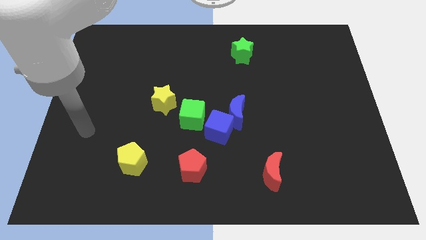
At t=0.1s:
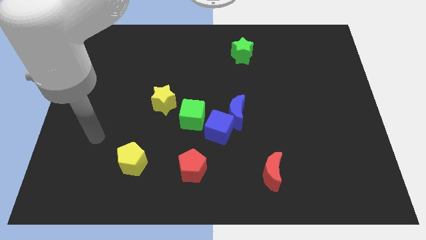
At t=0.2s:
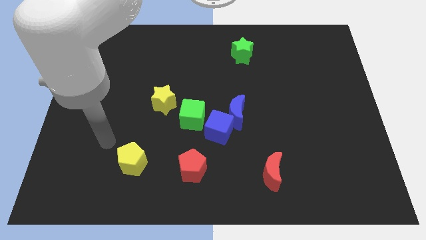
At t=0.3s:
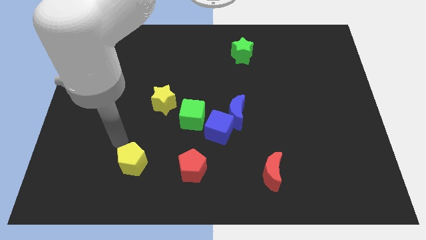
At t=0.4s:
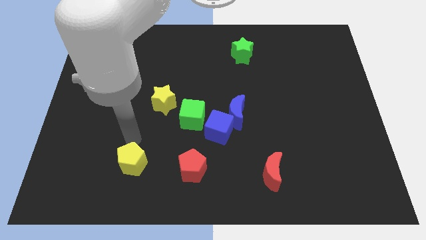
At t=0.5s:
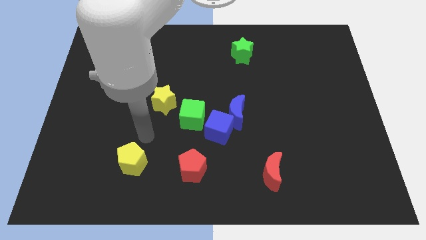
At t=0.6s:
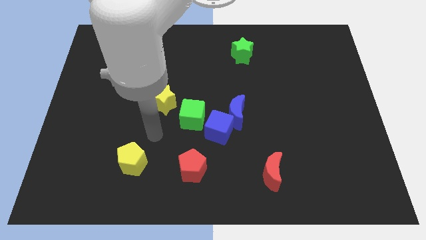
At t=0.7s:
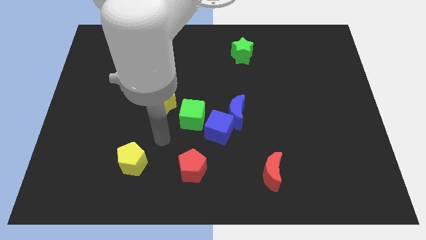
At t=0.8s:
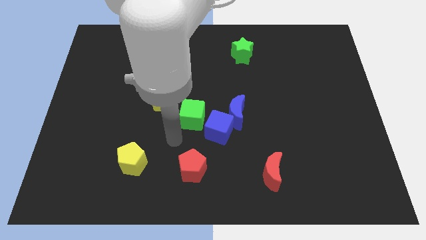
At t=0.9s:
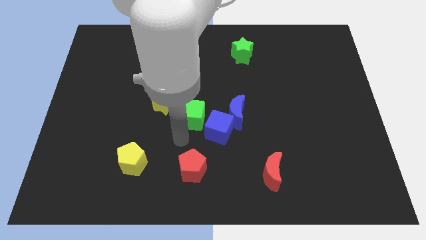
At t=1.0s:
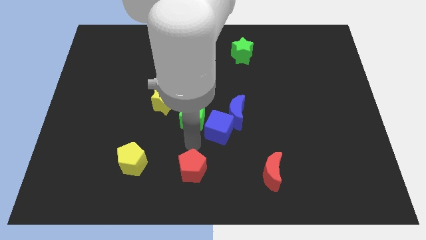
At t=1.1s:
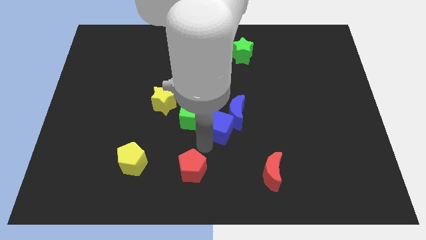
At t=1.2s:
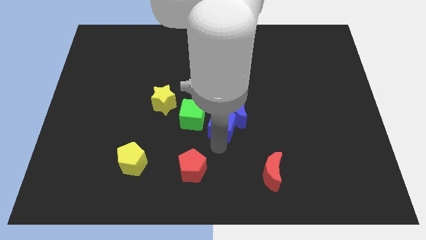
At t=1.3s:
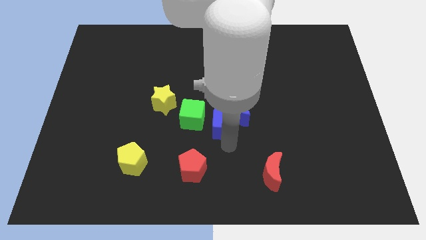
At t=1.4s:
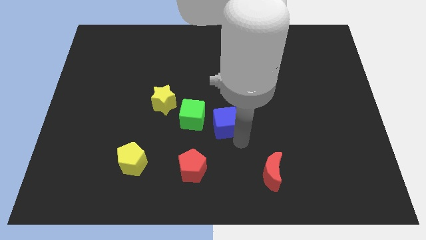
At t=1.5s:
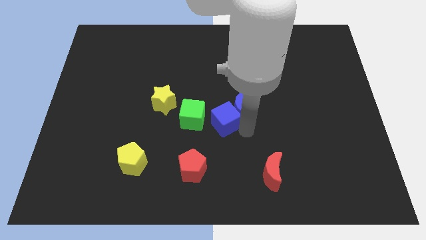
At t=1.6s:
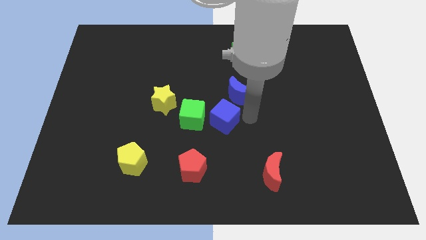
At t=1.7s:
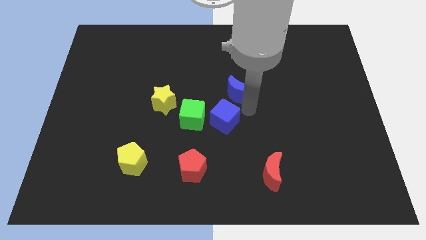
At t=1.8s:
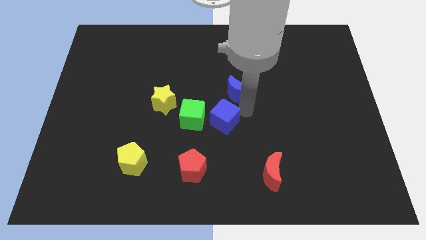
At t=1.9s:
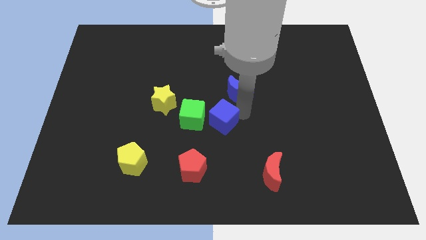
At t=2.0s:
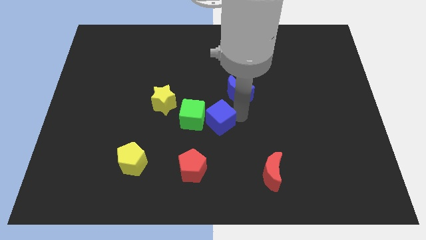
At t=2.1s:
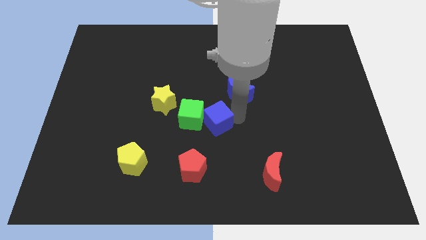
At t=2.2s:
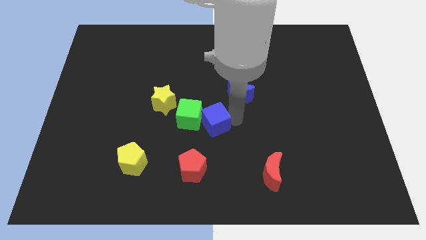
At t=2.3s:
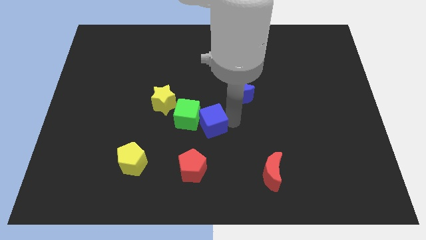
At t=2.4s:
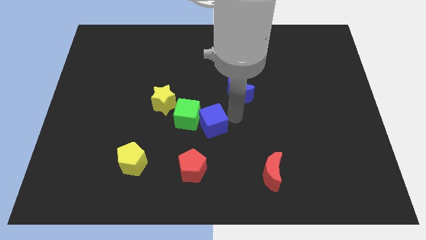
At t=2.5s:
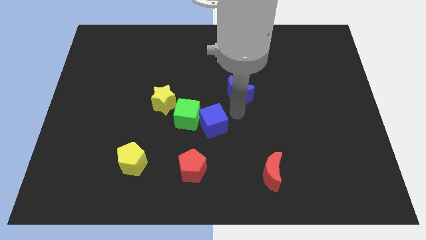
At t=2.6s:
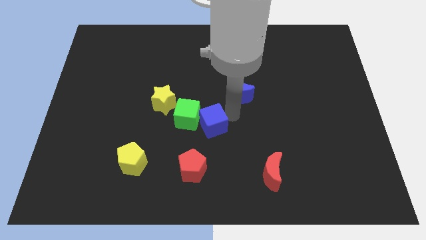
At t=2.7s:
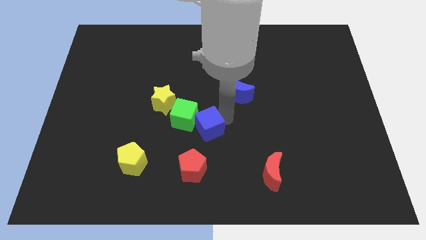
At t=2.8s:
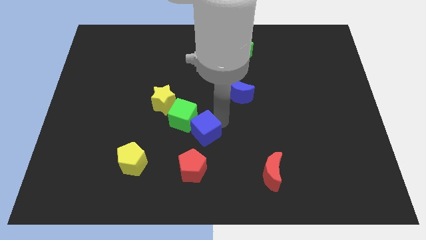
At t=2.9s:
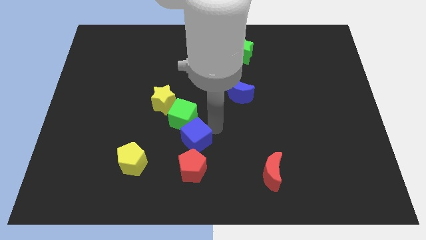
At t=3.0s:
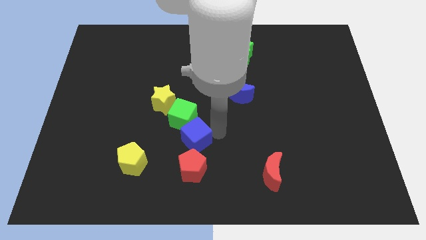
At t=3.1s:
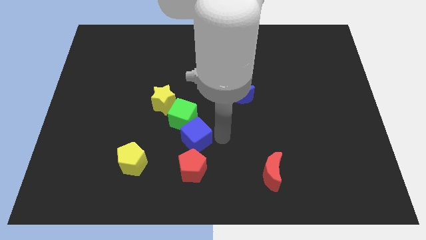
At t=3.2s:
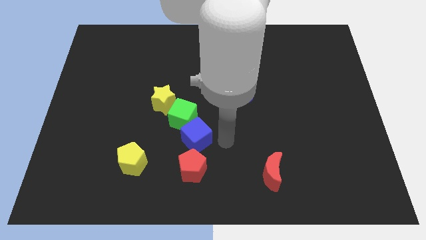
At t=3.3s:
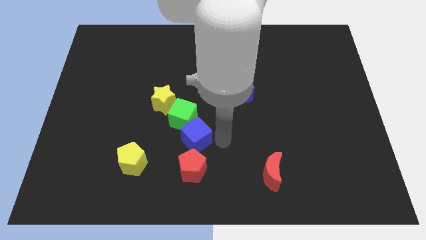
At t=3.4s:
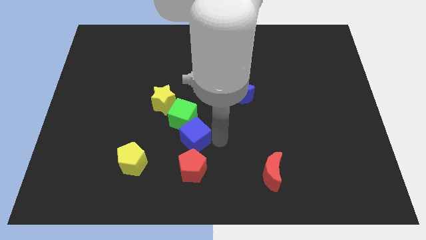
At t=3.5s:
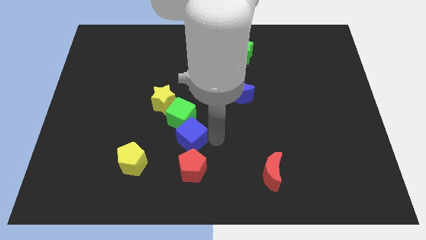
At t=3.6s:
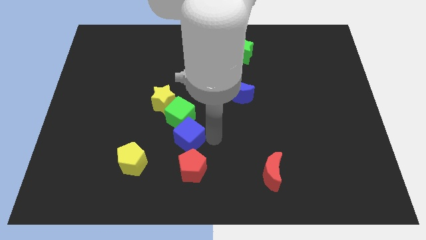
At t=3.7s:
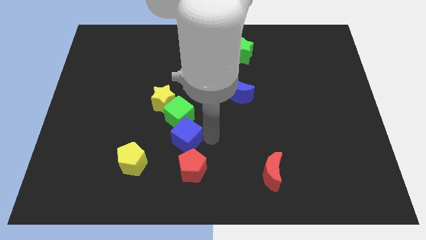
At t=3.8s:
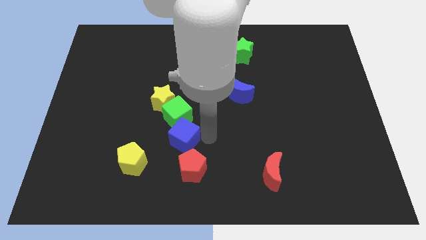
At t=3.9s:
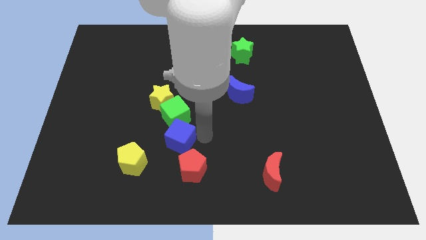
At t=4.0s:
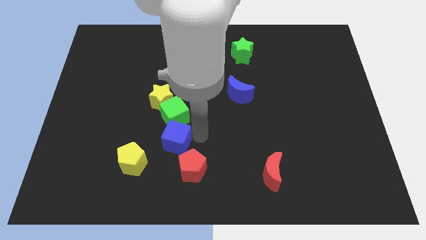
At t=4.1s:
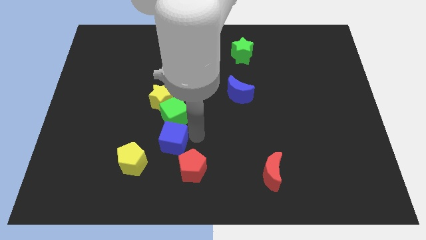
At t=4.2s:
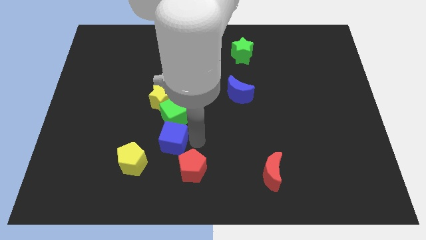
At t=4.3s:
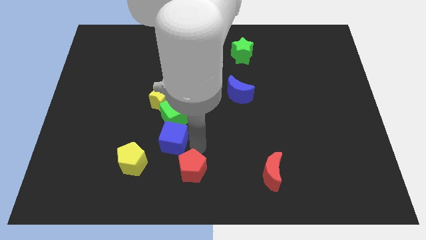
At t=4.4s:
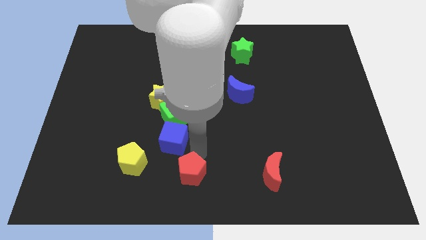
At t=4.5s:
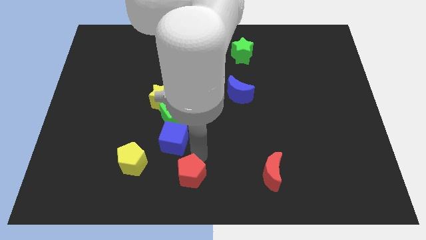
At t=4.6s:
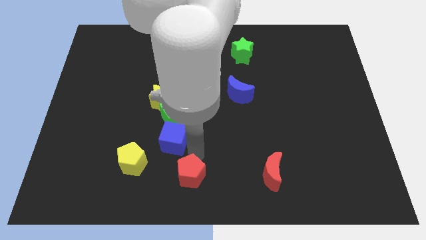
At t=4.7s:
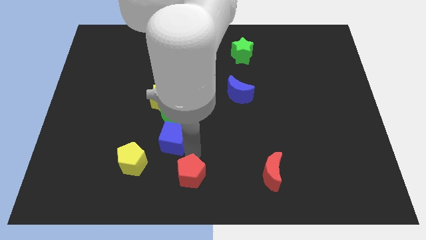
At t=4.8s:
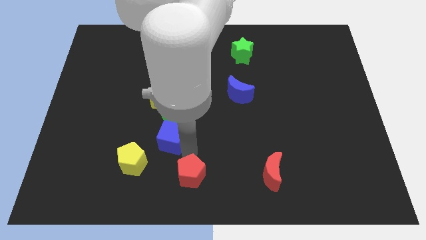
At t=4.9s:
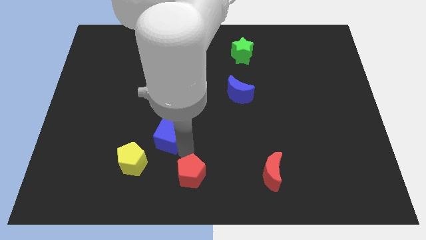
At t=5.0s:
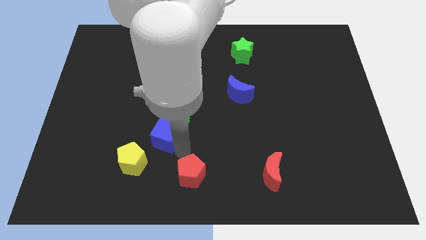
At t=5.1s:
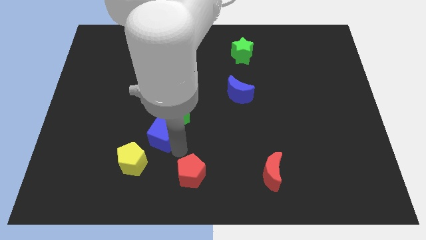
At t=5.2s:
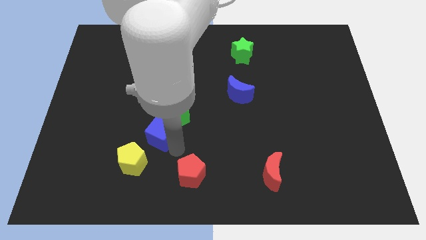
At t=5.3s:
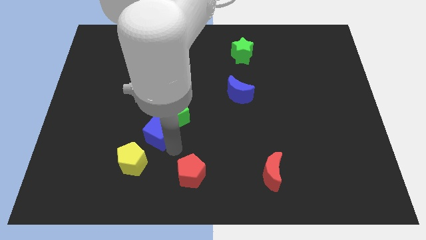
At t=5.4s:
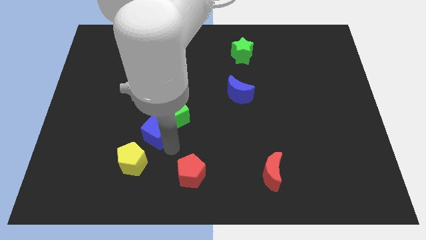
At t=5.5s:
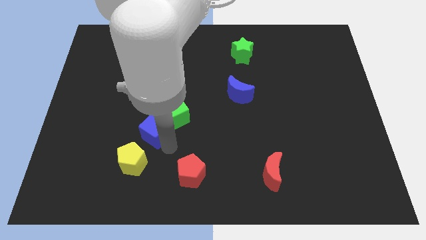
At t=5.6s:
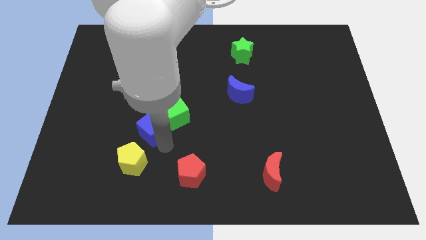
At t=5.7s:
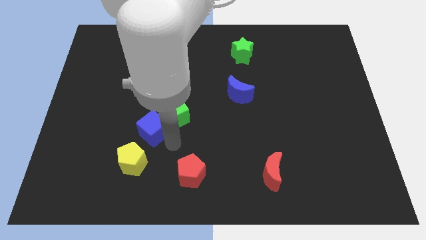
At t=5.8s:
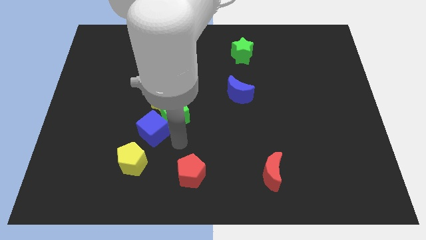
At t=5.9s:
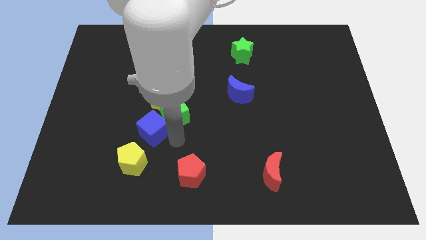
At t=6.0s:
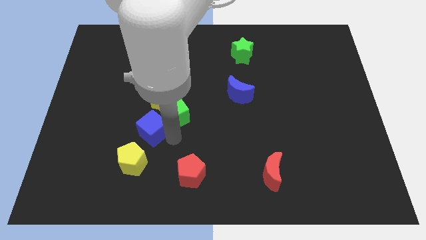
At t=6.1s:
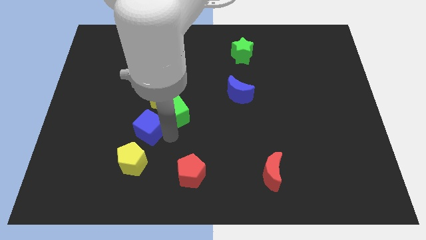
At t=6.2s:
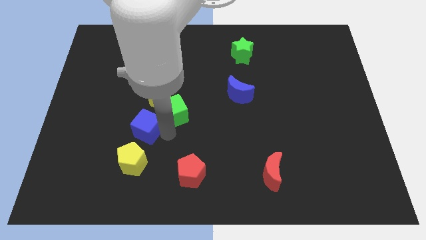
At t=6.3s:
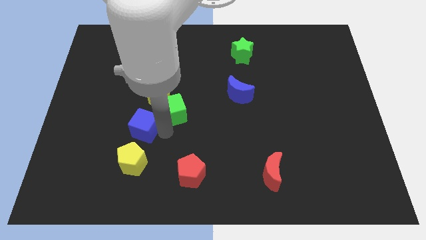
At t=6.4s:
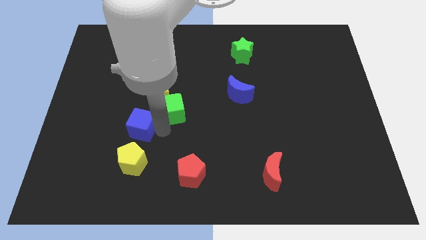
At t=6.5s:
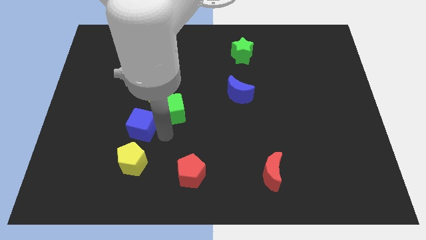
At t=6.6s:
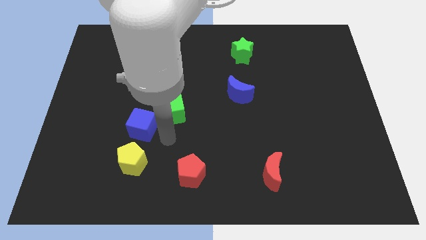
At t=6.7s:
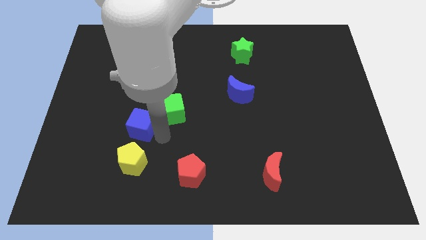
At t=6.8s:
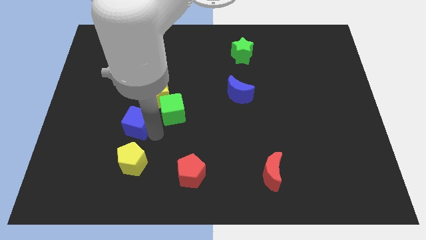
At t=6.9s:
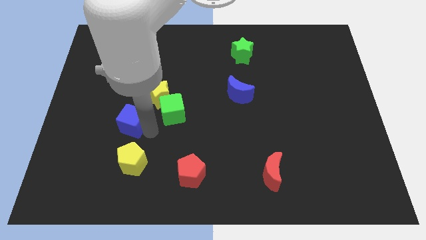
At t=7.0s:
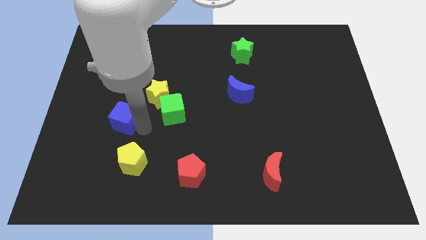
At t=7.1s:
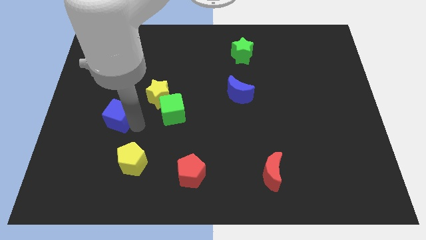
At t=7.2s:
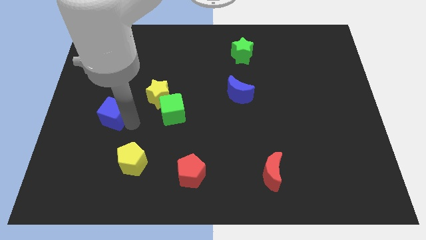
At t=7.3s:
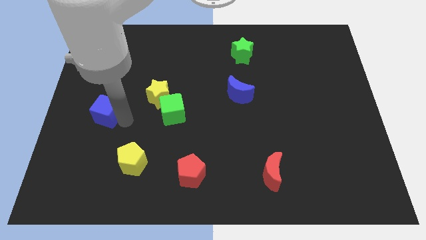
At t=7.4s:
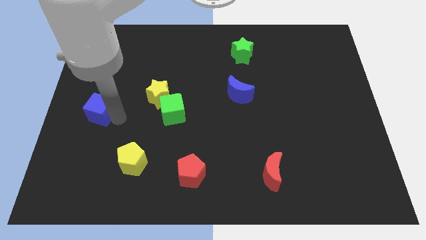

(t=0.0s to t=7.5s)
push the blue cube to the center left
